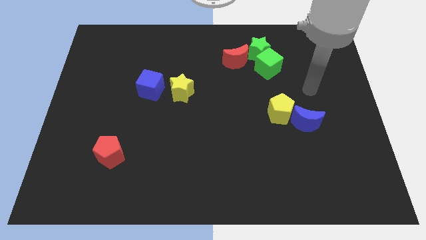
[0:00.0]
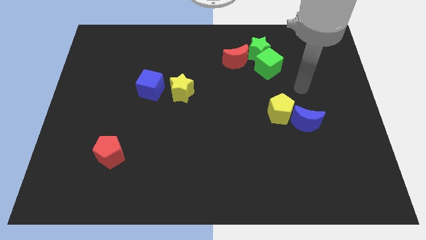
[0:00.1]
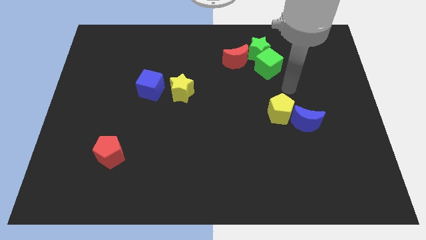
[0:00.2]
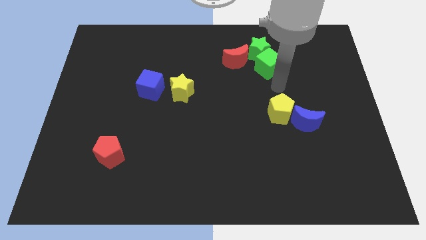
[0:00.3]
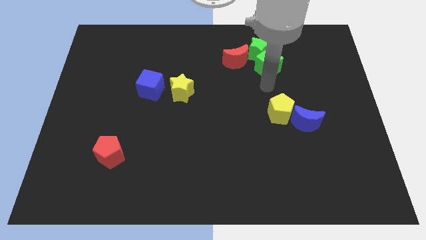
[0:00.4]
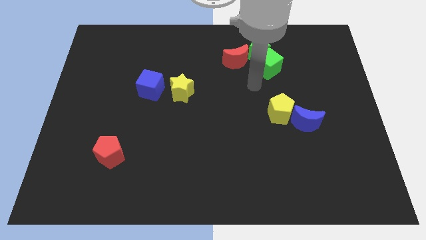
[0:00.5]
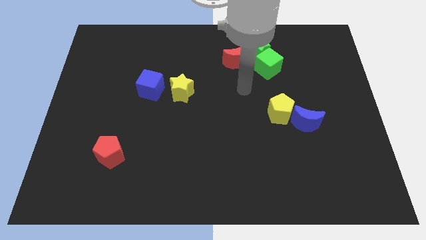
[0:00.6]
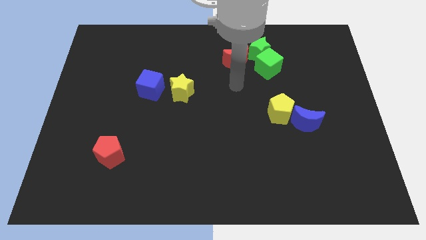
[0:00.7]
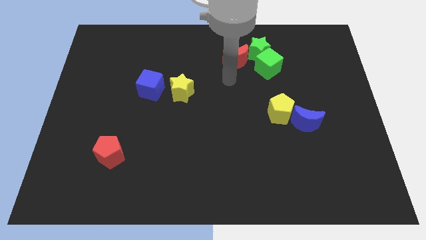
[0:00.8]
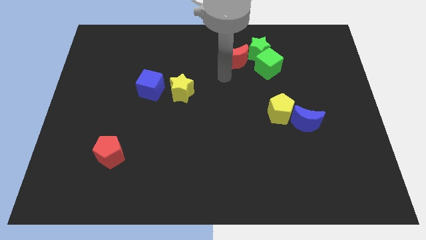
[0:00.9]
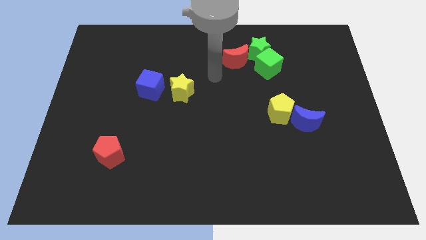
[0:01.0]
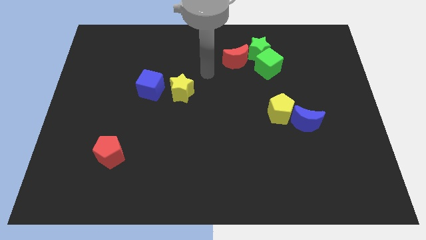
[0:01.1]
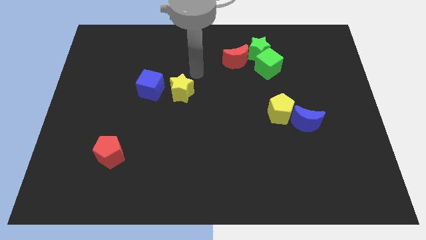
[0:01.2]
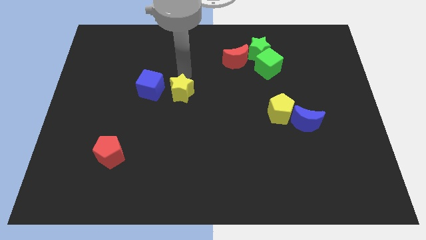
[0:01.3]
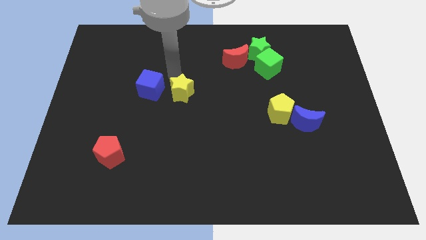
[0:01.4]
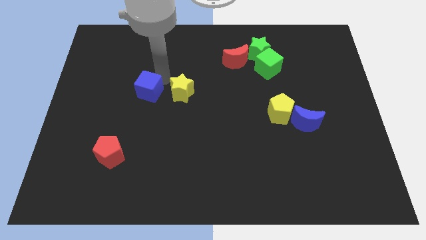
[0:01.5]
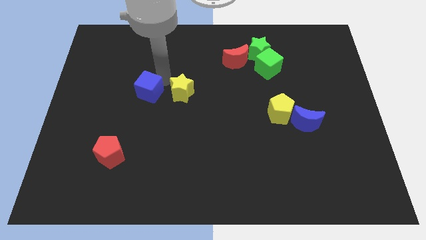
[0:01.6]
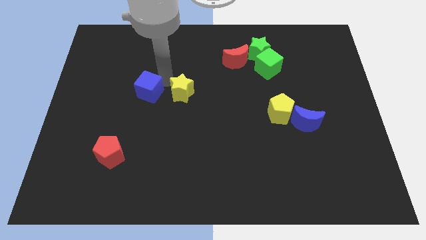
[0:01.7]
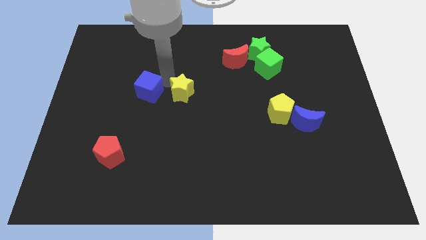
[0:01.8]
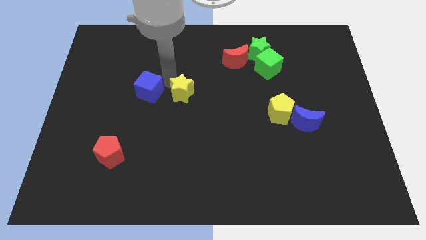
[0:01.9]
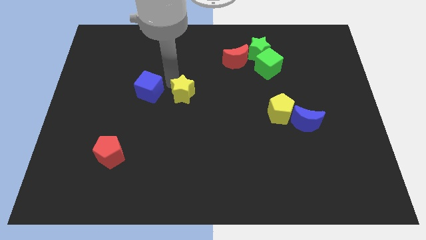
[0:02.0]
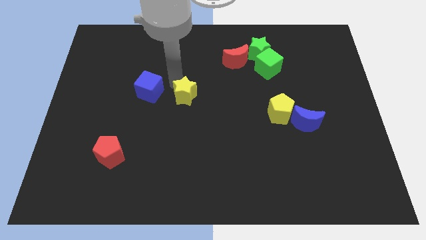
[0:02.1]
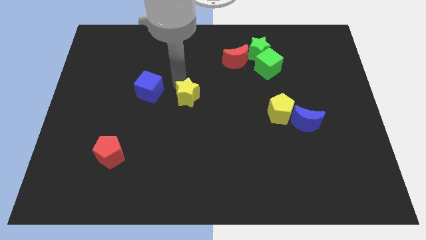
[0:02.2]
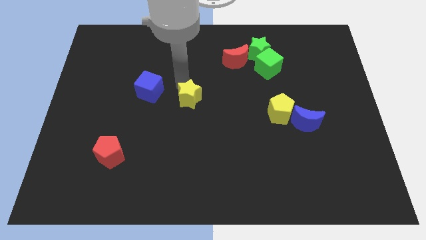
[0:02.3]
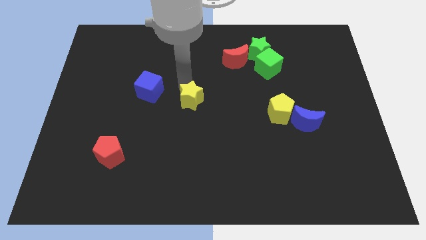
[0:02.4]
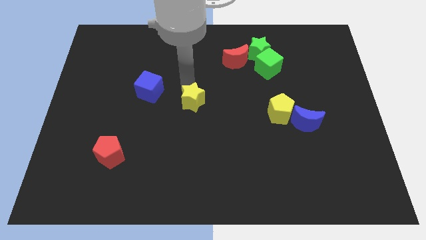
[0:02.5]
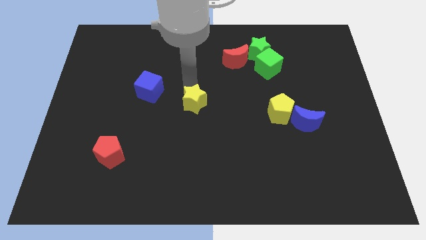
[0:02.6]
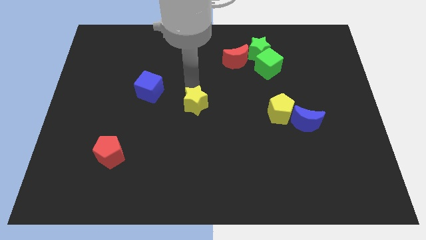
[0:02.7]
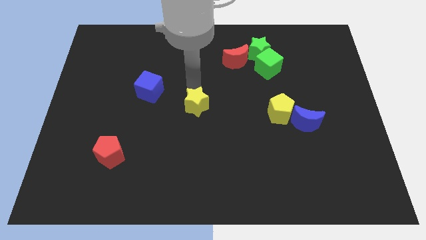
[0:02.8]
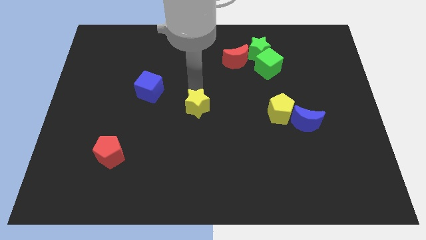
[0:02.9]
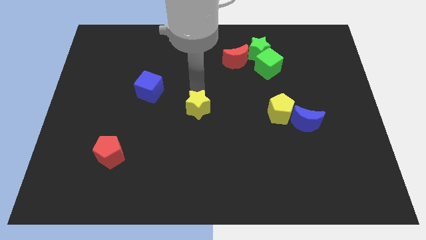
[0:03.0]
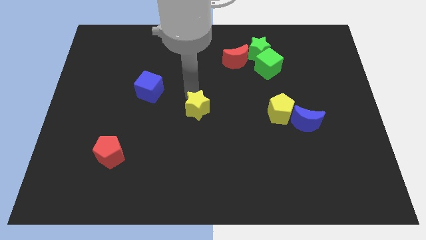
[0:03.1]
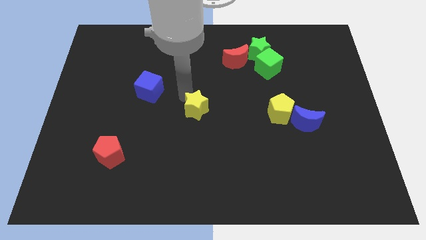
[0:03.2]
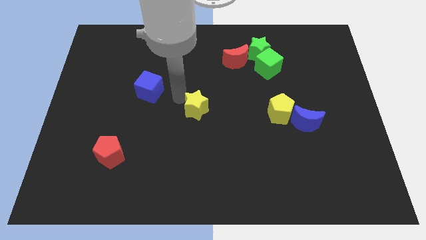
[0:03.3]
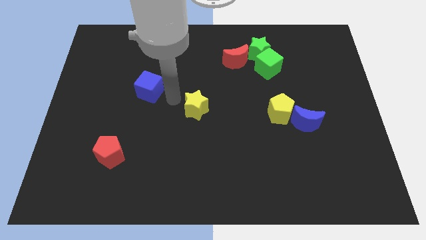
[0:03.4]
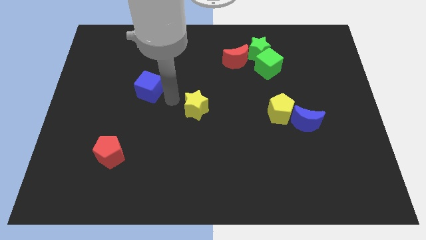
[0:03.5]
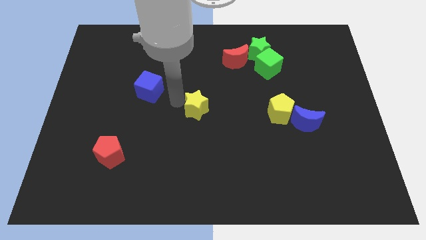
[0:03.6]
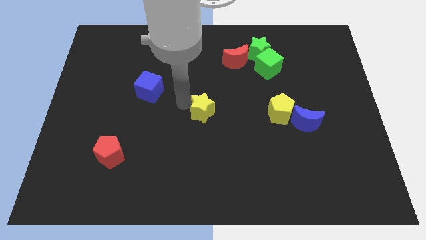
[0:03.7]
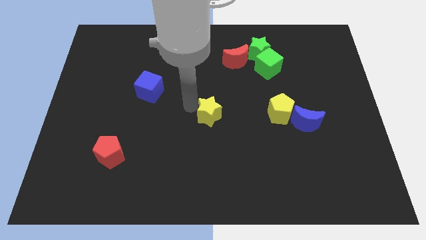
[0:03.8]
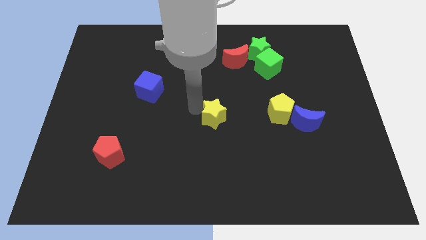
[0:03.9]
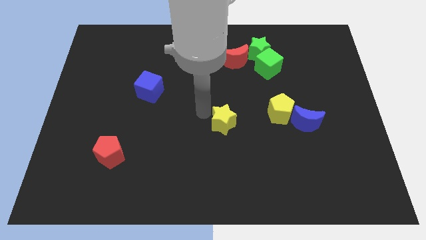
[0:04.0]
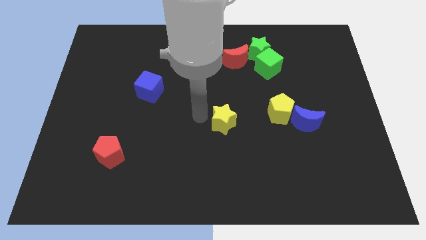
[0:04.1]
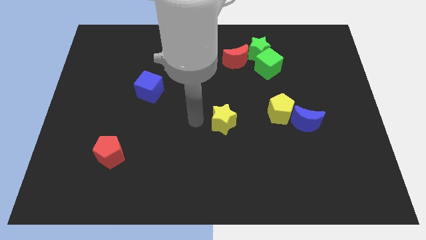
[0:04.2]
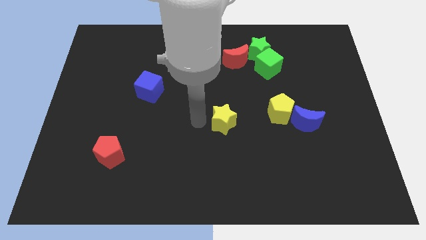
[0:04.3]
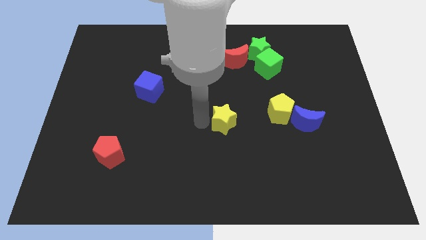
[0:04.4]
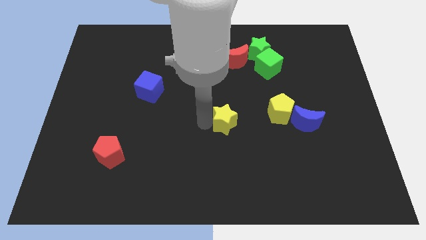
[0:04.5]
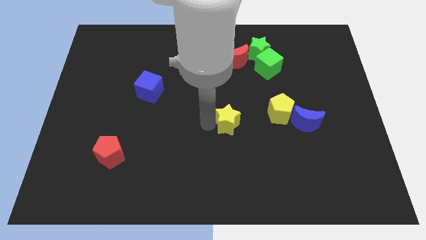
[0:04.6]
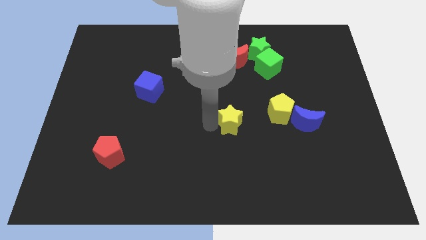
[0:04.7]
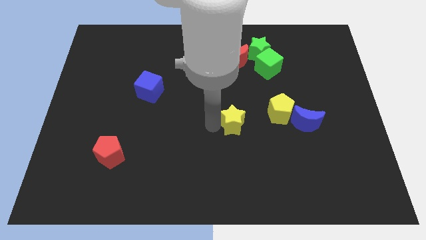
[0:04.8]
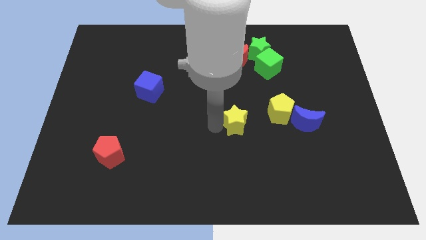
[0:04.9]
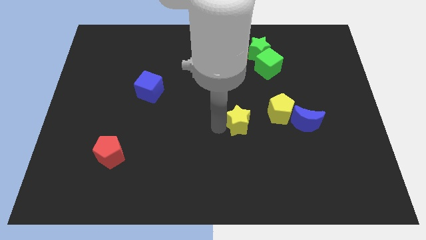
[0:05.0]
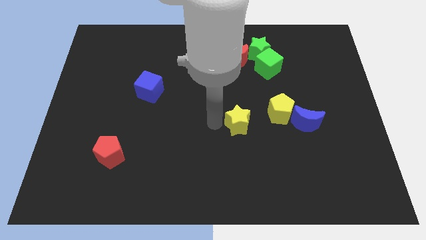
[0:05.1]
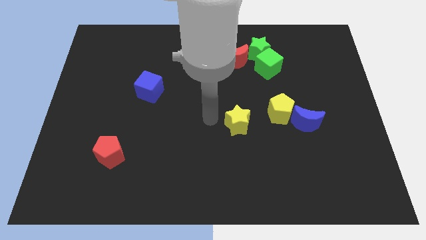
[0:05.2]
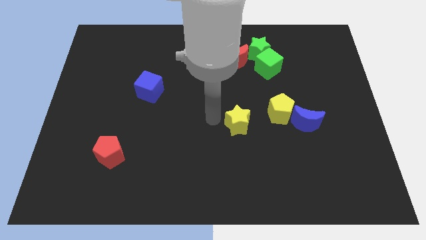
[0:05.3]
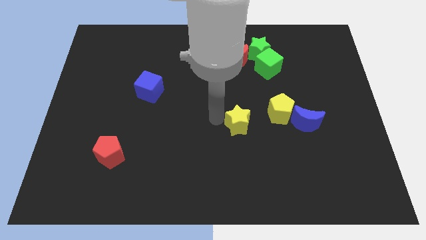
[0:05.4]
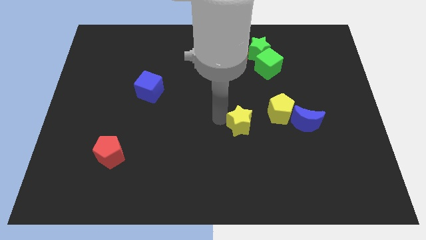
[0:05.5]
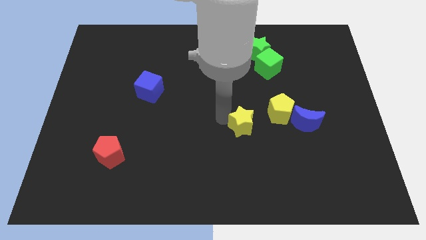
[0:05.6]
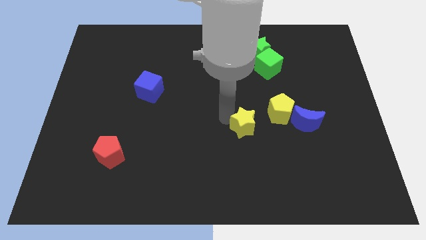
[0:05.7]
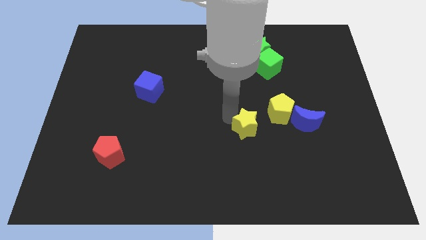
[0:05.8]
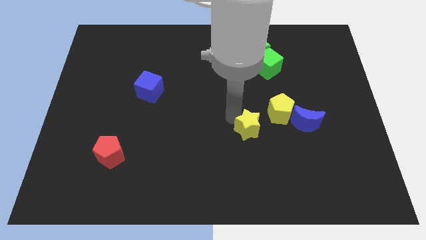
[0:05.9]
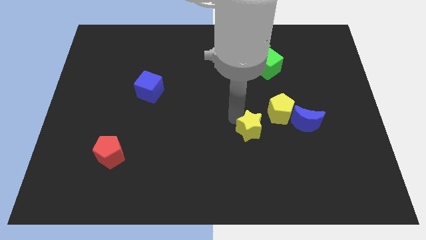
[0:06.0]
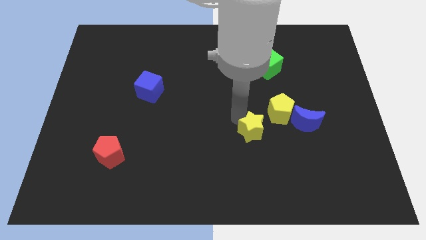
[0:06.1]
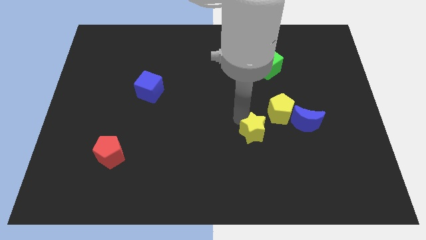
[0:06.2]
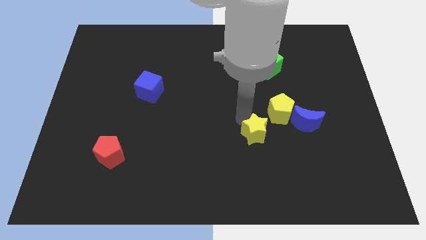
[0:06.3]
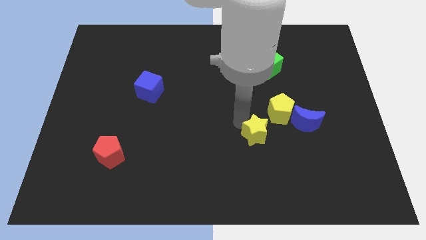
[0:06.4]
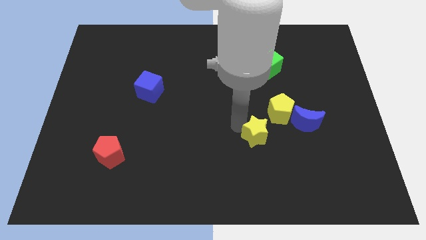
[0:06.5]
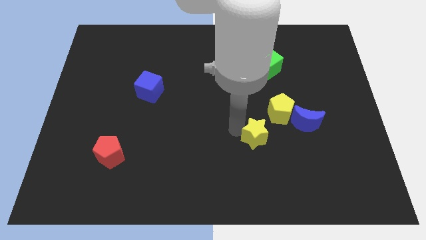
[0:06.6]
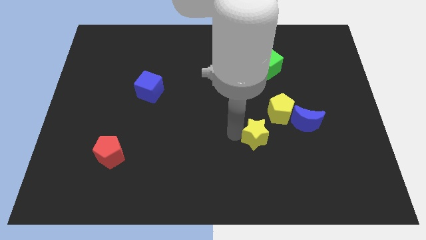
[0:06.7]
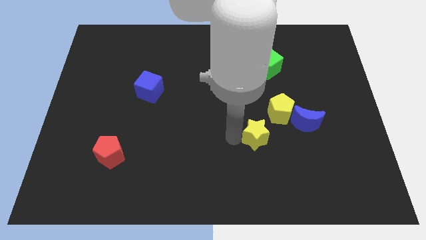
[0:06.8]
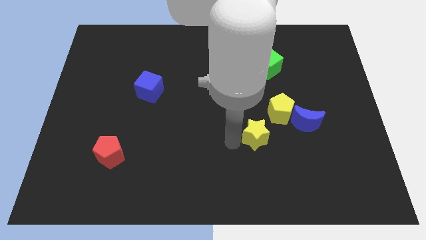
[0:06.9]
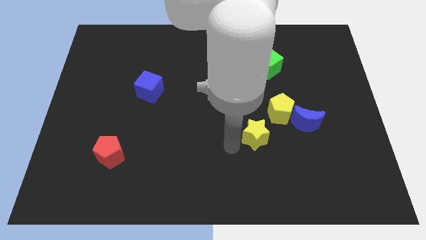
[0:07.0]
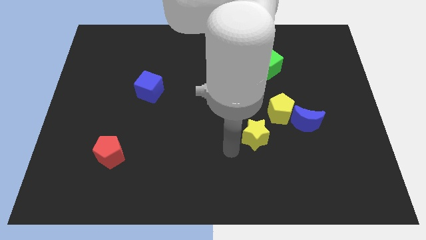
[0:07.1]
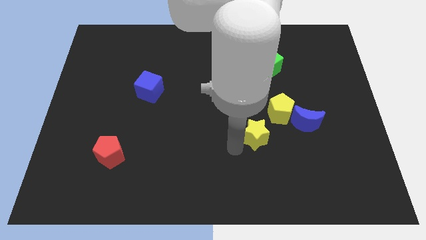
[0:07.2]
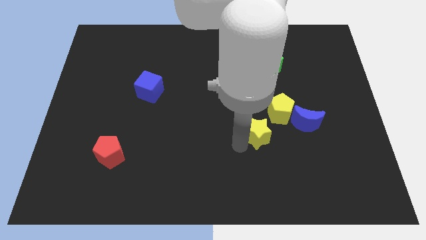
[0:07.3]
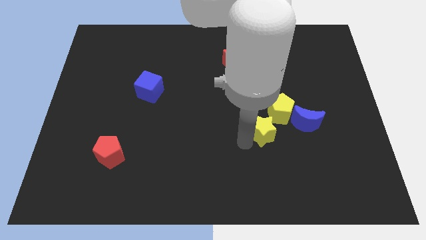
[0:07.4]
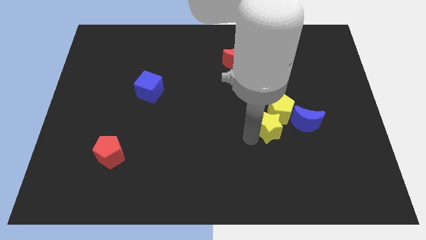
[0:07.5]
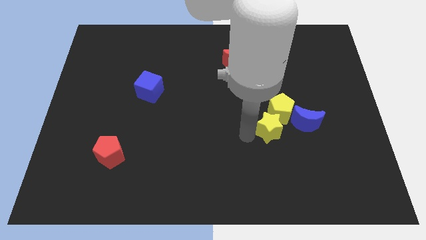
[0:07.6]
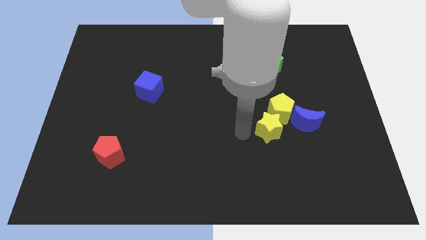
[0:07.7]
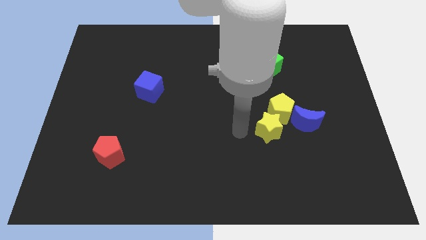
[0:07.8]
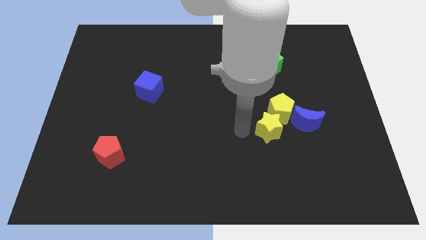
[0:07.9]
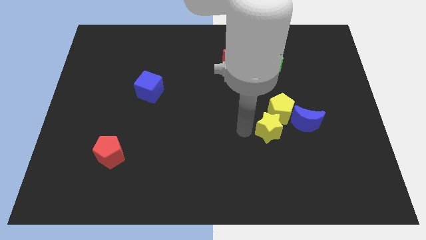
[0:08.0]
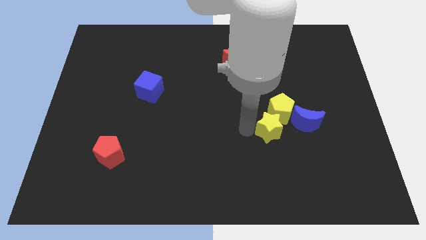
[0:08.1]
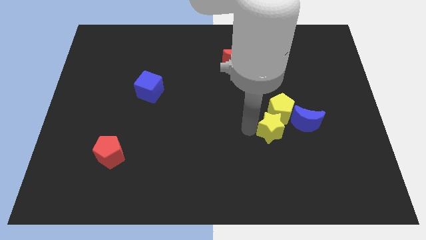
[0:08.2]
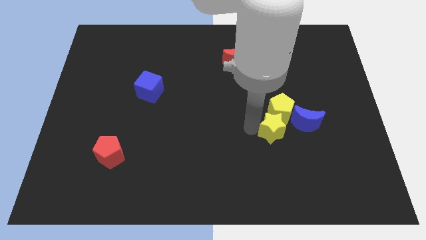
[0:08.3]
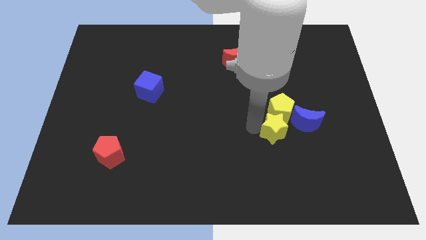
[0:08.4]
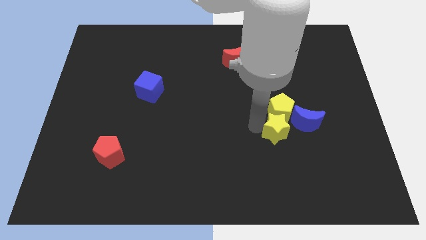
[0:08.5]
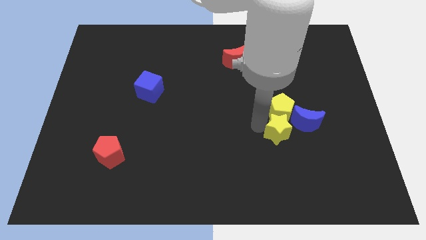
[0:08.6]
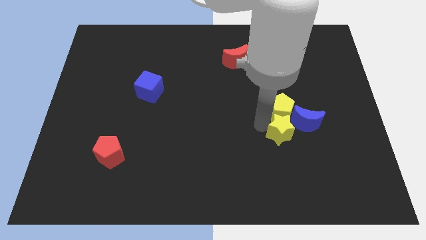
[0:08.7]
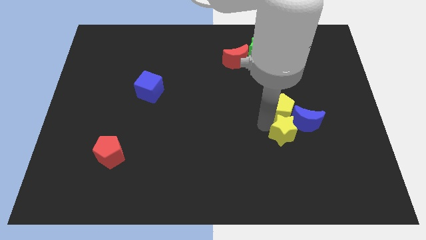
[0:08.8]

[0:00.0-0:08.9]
put the yellow star towards the blue moon
